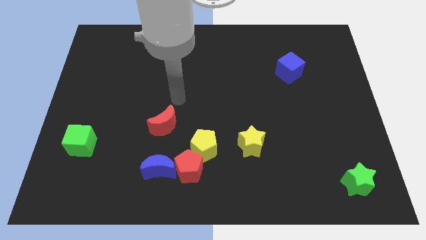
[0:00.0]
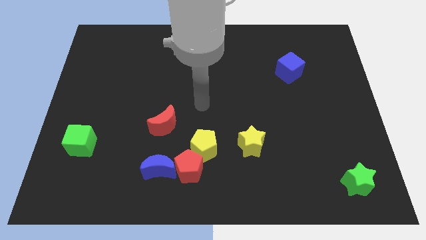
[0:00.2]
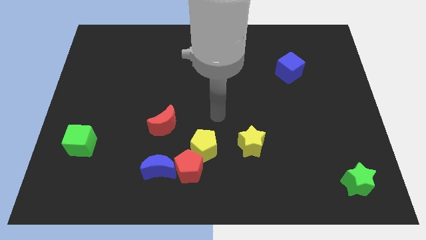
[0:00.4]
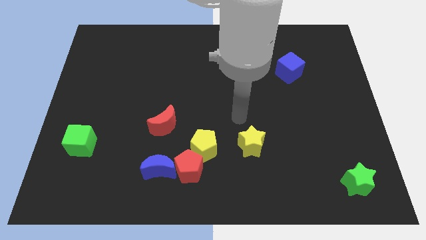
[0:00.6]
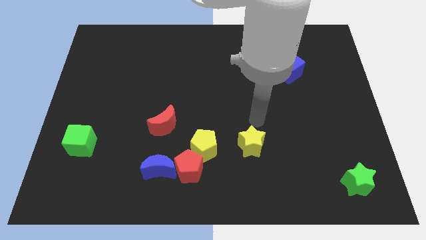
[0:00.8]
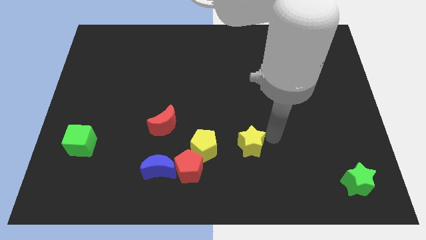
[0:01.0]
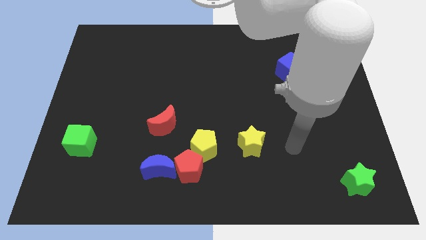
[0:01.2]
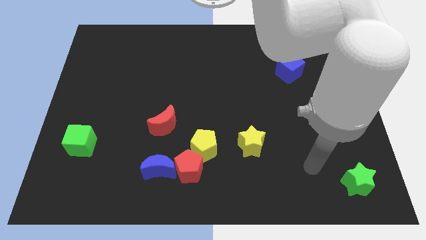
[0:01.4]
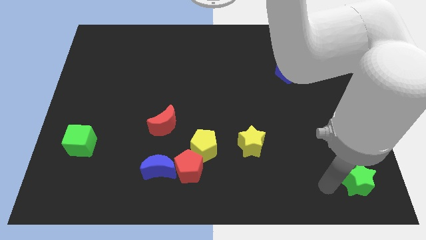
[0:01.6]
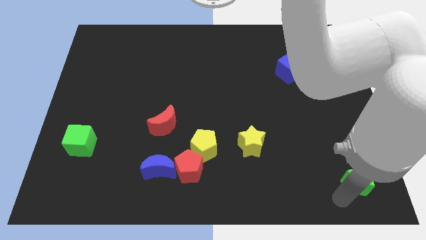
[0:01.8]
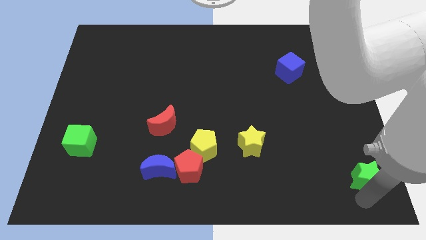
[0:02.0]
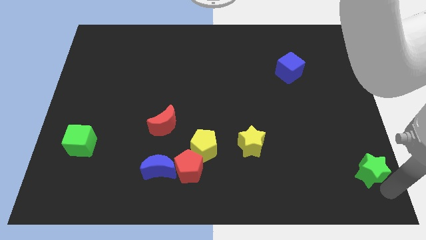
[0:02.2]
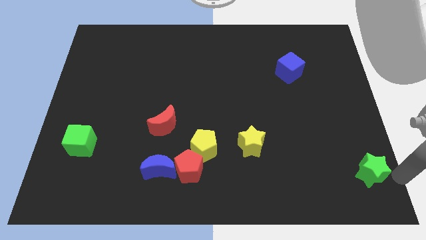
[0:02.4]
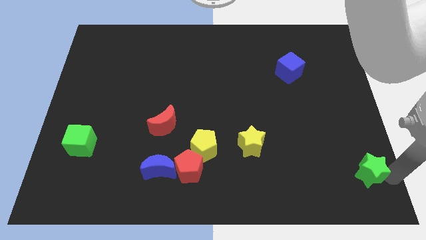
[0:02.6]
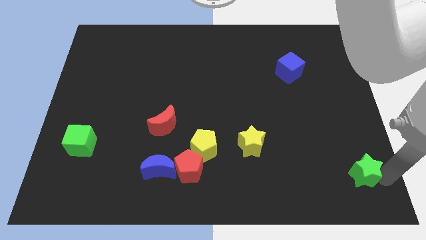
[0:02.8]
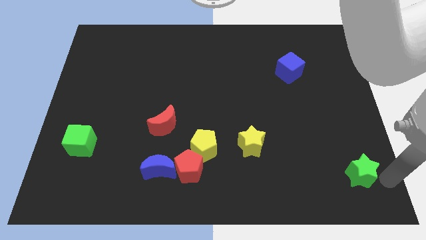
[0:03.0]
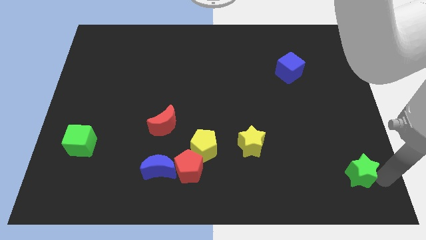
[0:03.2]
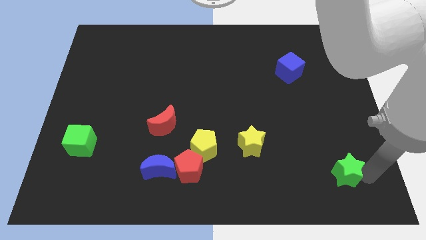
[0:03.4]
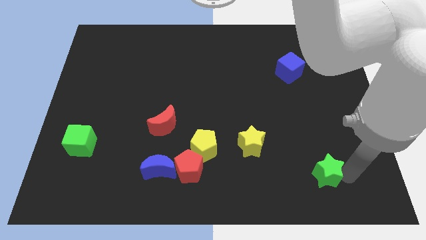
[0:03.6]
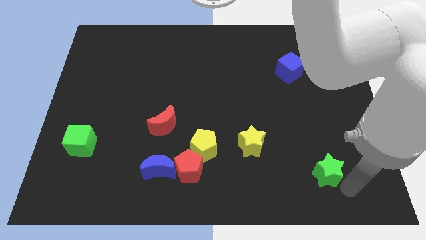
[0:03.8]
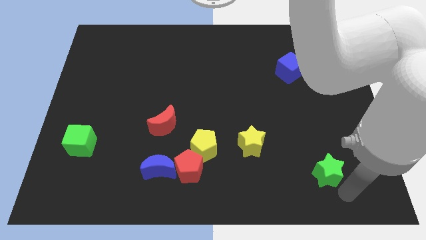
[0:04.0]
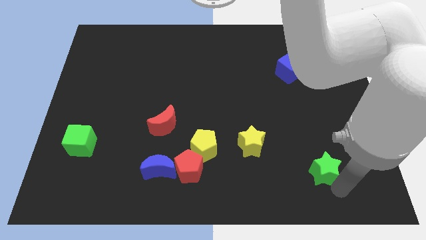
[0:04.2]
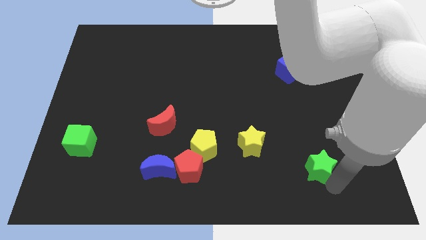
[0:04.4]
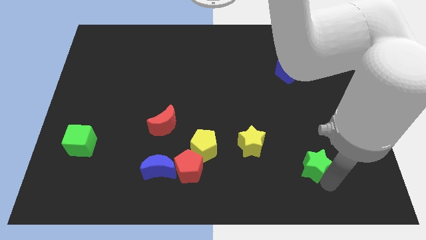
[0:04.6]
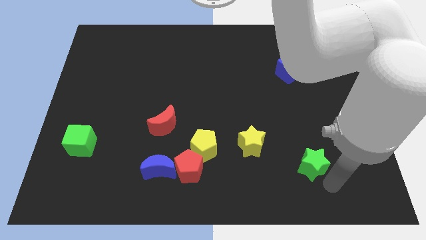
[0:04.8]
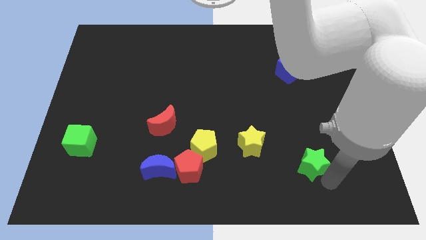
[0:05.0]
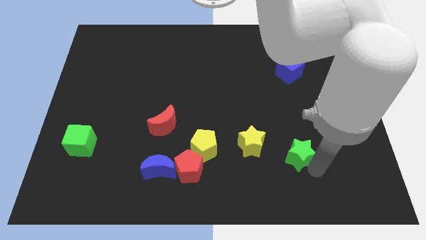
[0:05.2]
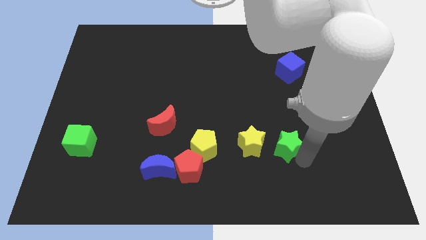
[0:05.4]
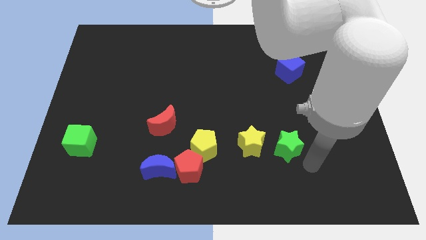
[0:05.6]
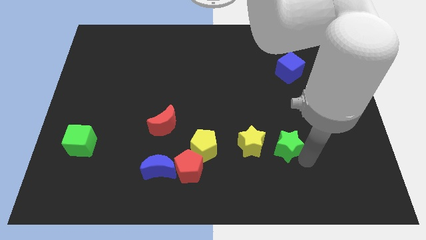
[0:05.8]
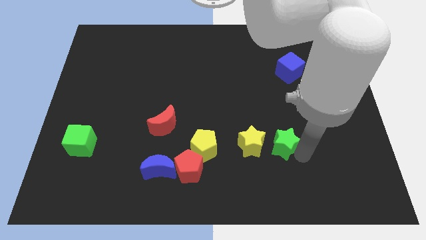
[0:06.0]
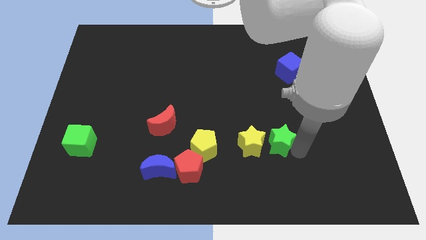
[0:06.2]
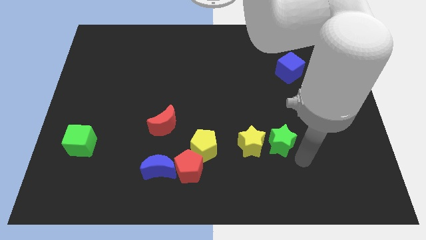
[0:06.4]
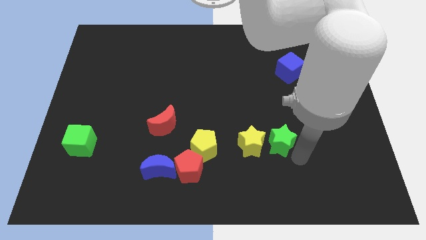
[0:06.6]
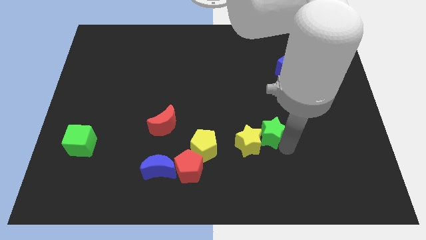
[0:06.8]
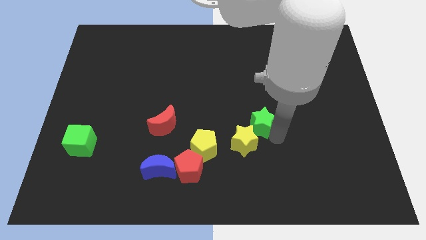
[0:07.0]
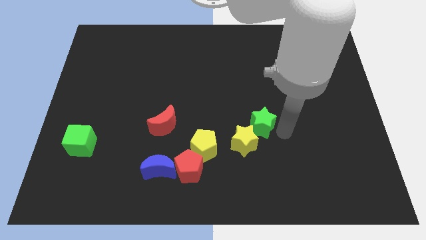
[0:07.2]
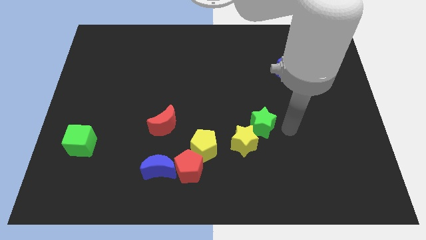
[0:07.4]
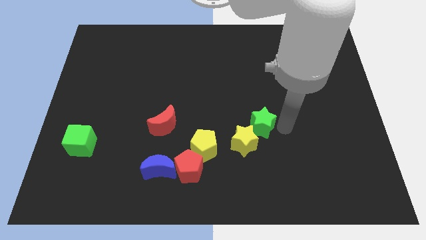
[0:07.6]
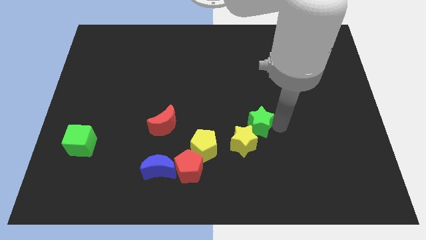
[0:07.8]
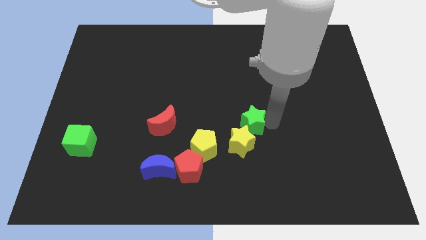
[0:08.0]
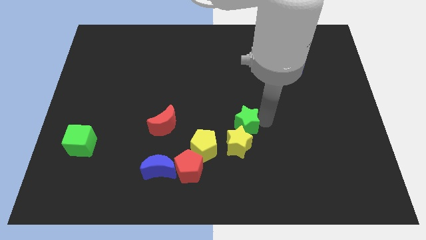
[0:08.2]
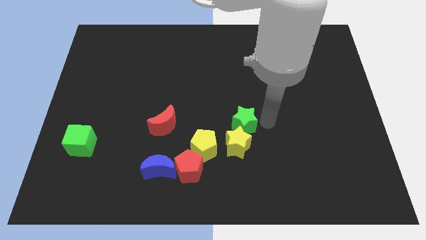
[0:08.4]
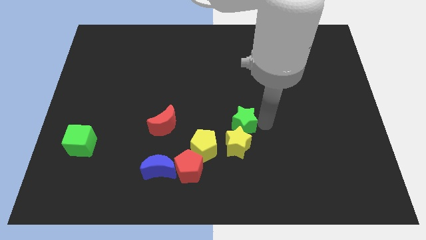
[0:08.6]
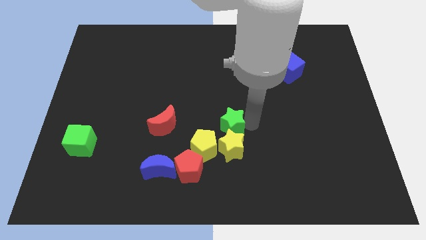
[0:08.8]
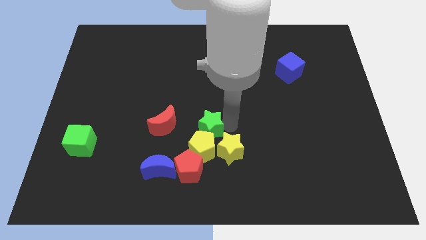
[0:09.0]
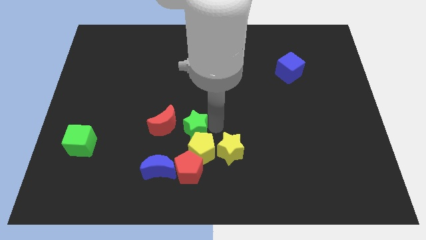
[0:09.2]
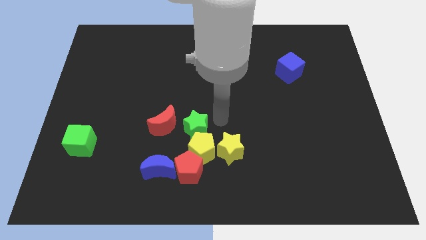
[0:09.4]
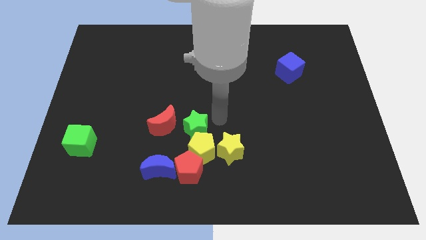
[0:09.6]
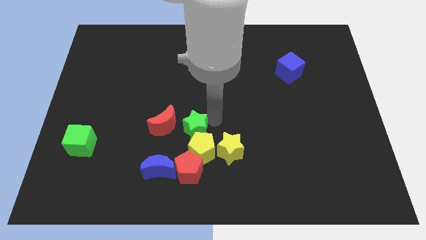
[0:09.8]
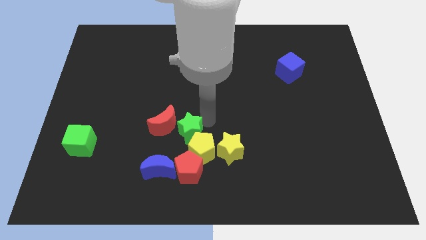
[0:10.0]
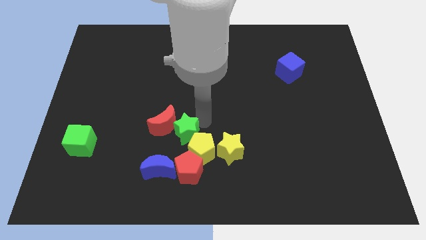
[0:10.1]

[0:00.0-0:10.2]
move the green star just left of the yellow pentagon
